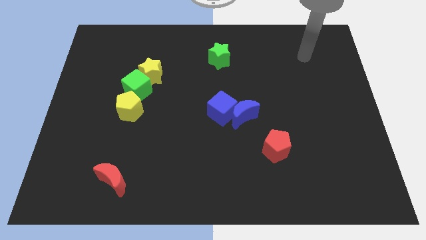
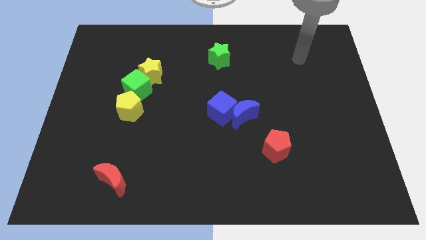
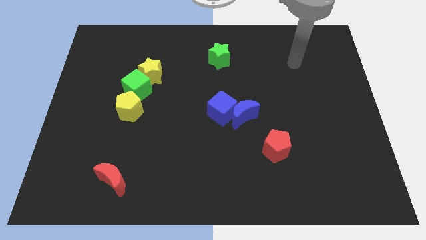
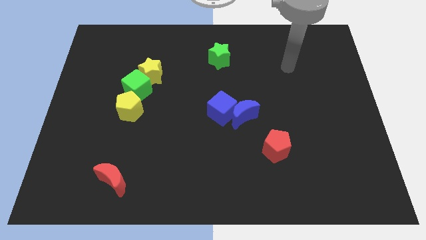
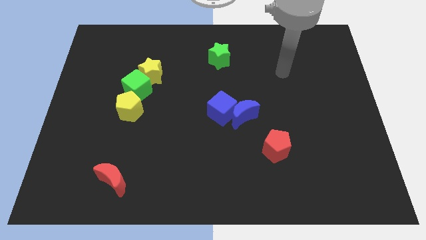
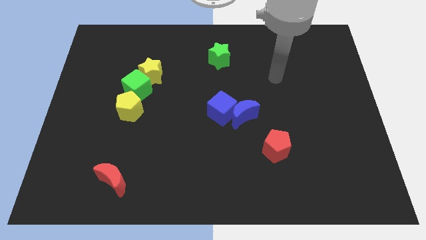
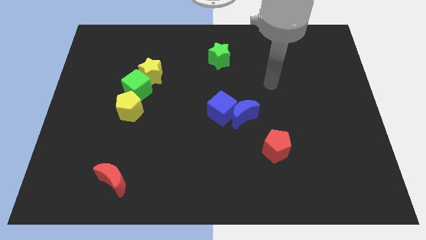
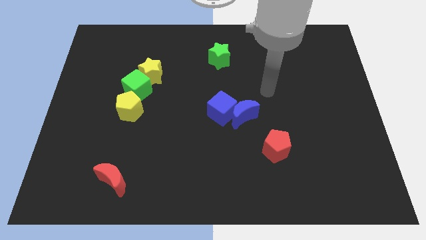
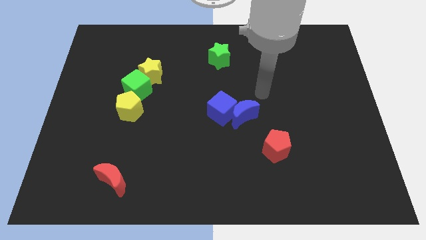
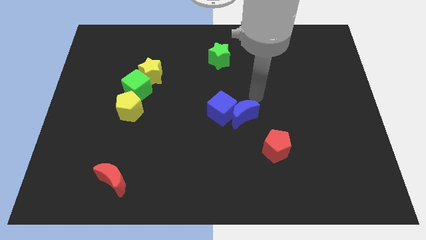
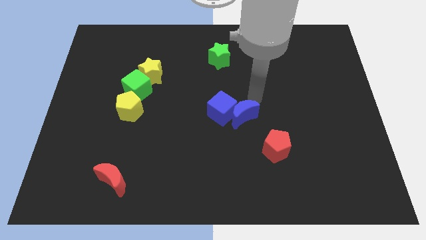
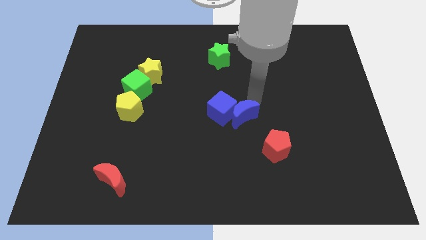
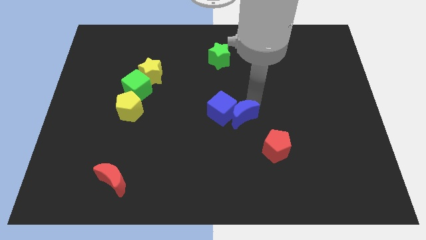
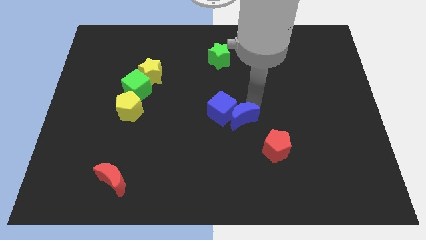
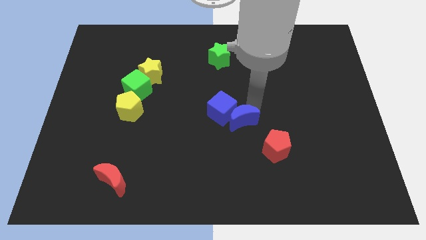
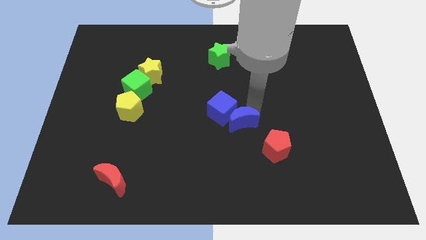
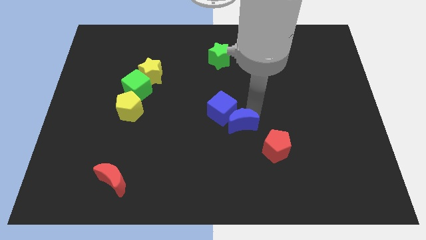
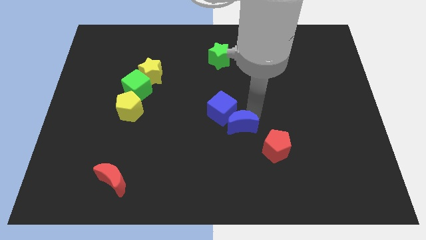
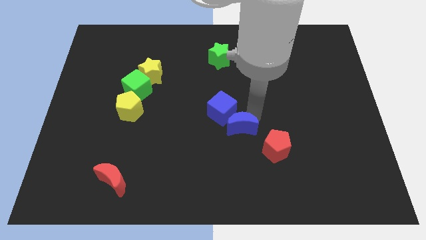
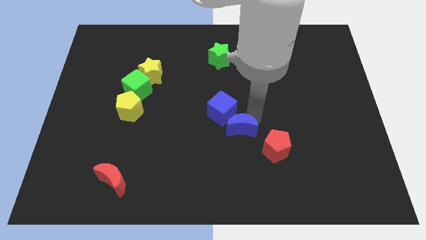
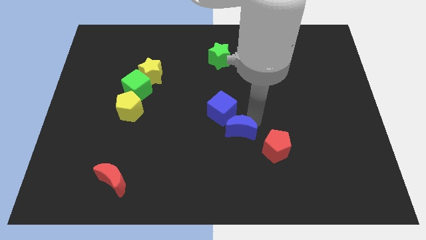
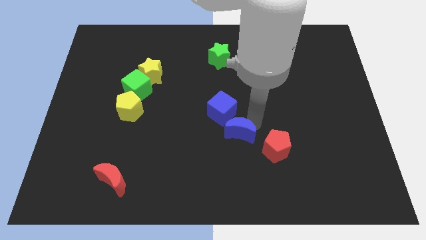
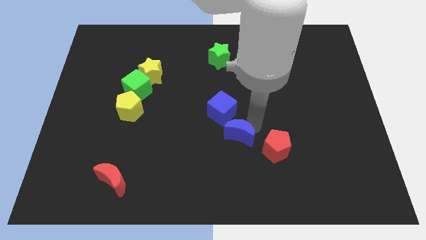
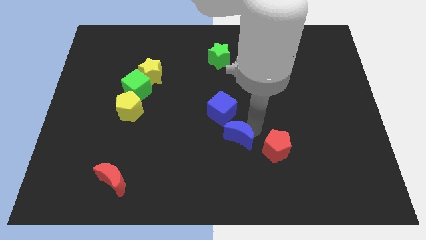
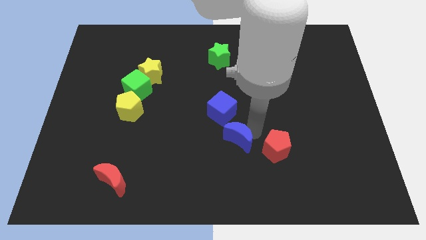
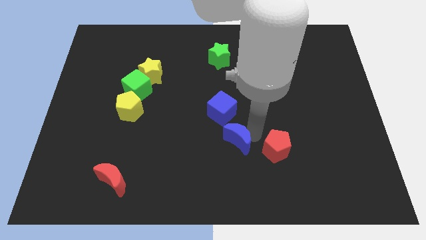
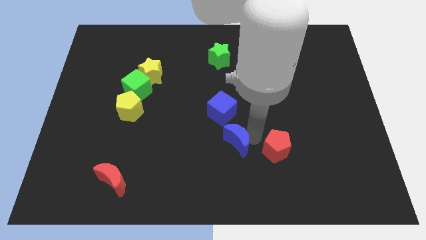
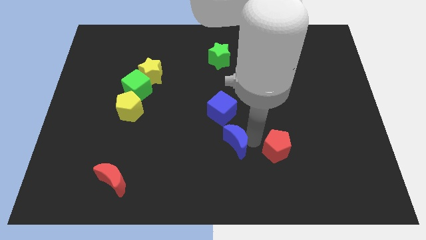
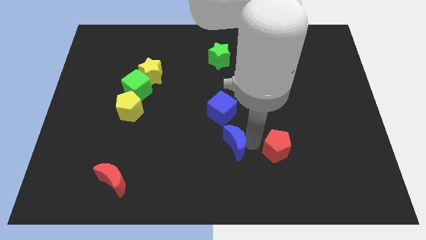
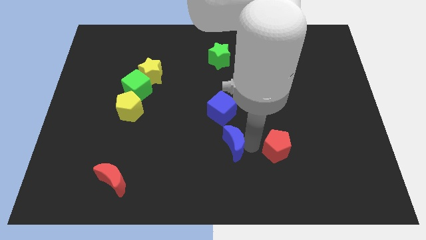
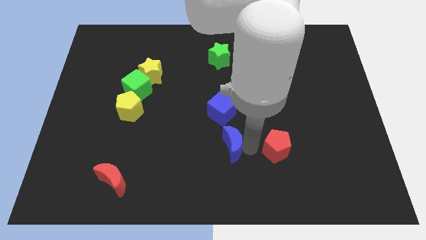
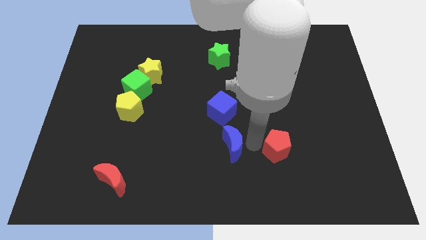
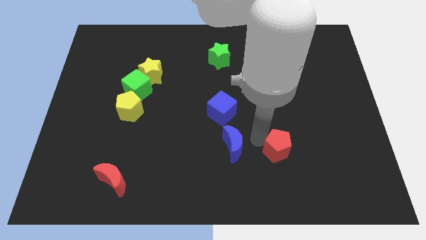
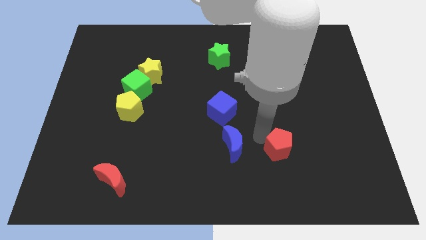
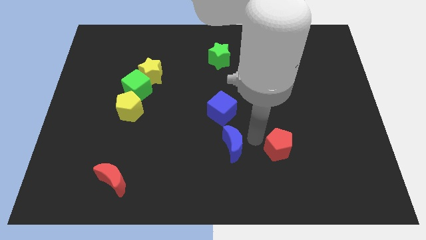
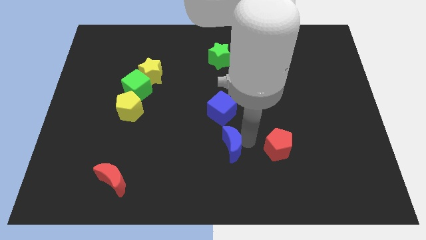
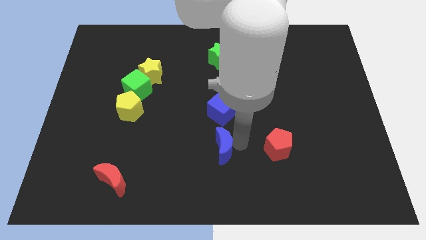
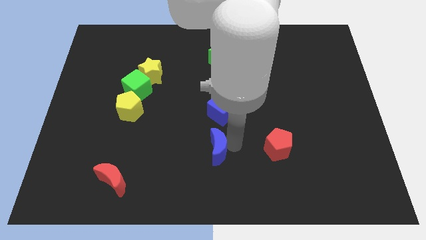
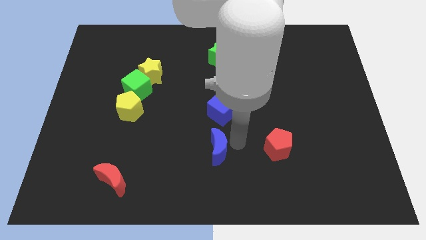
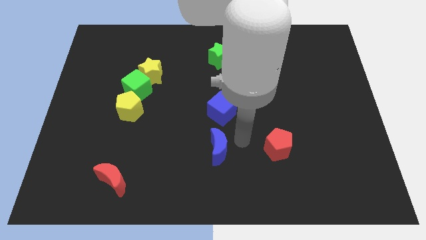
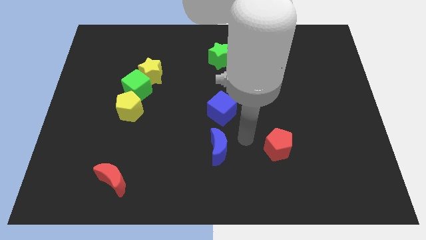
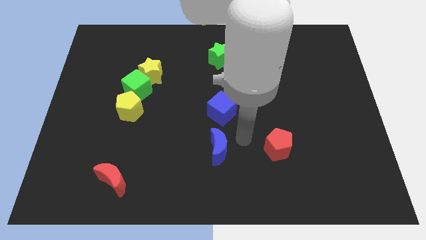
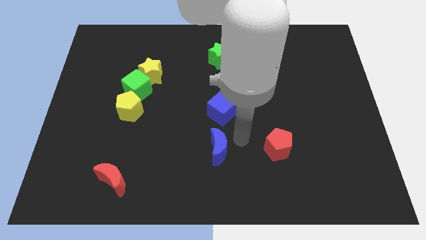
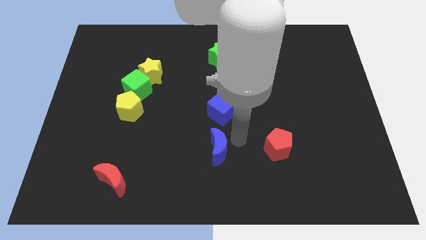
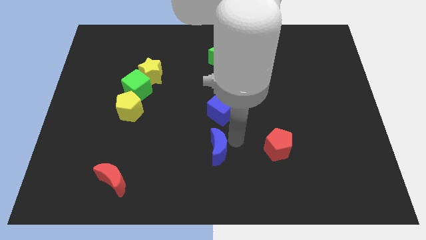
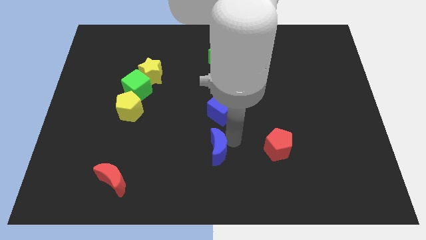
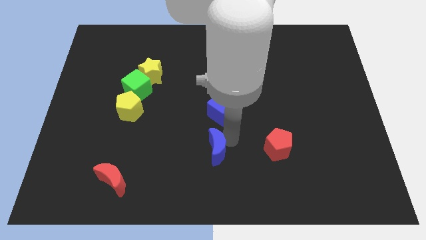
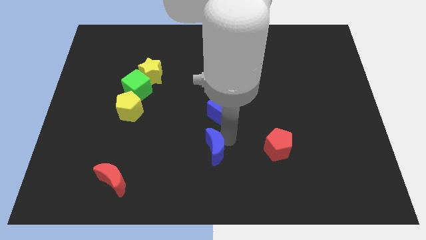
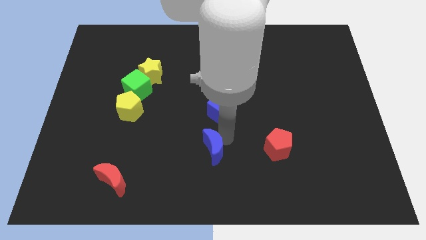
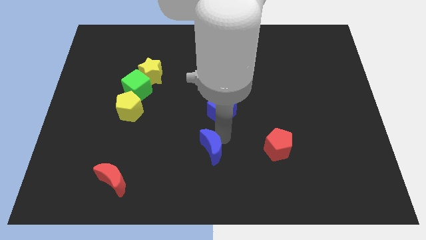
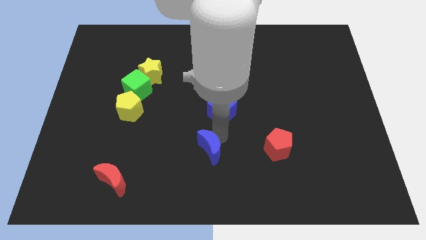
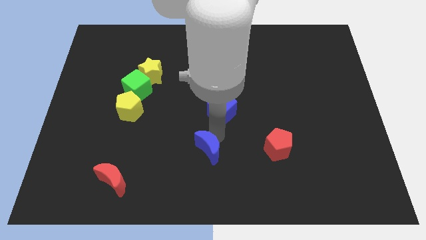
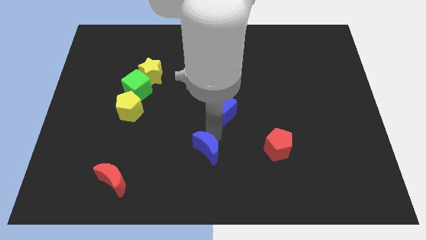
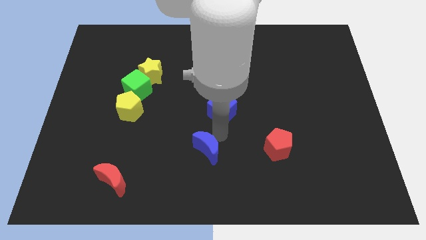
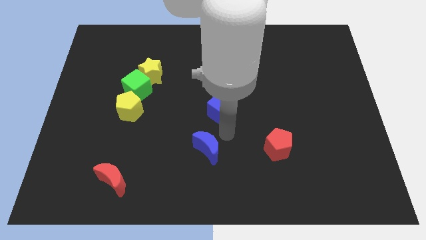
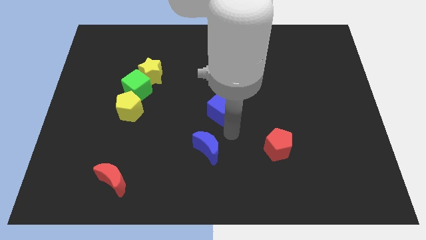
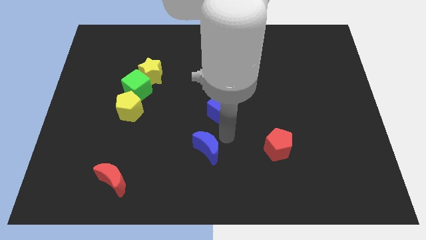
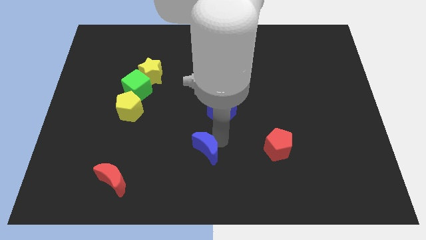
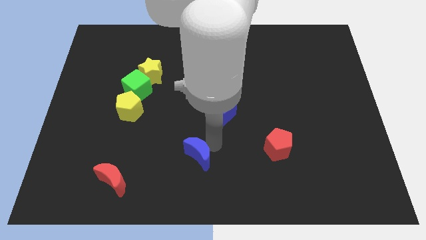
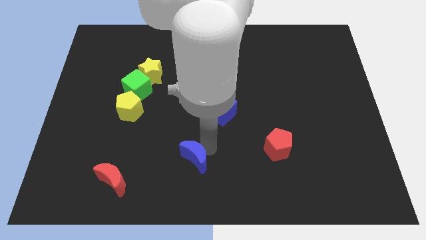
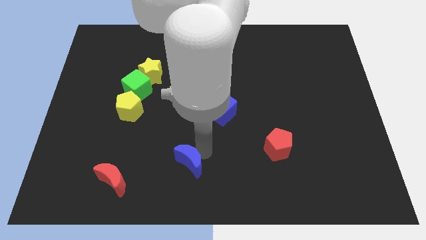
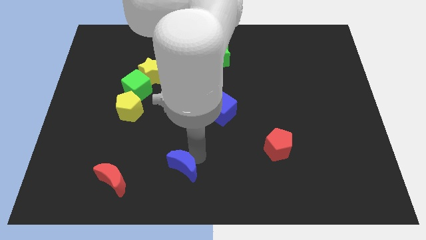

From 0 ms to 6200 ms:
push the blue moon to the right side of the red moon
